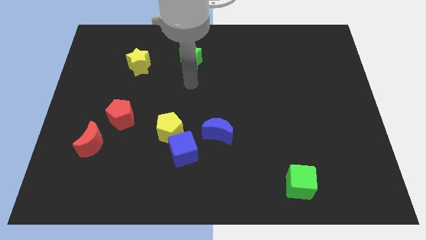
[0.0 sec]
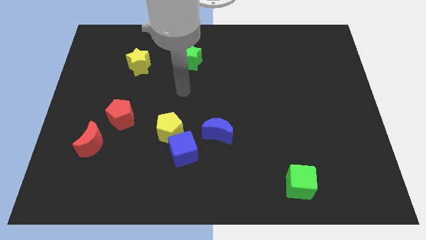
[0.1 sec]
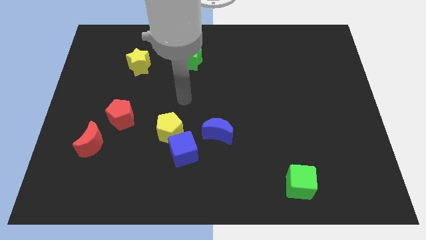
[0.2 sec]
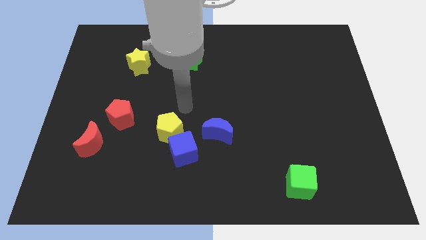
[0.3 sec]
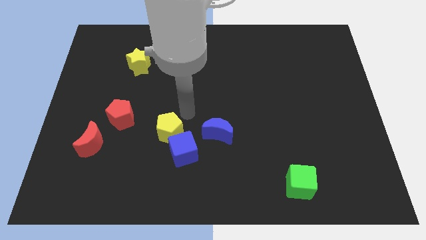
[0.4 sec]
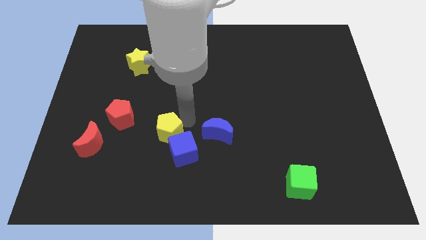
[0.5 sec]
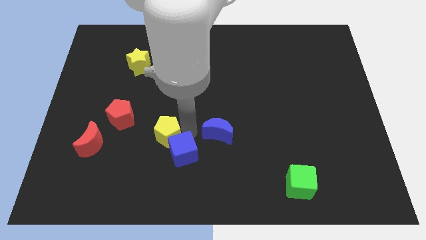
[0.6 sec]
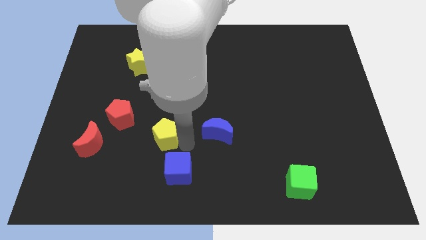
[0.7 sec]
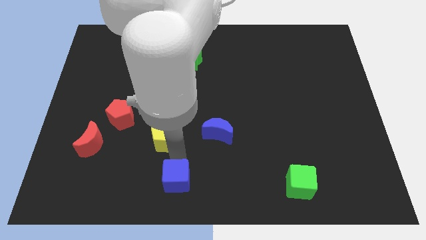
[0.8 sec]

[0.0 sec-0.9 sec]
pull the yellow pentagon apart from the blue cube

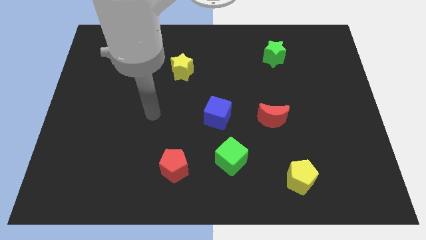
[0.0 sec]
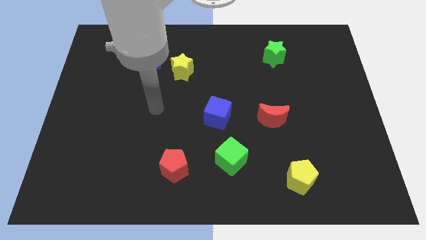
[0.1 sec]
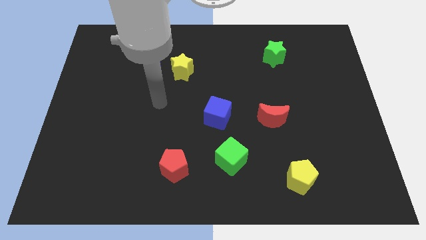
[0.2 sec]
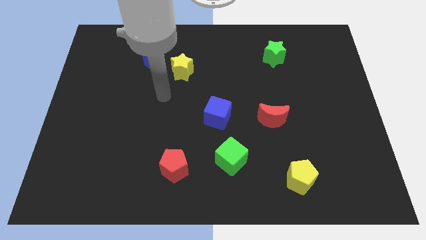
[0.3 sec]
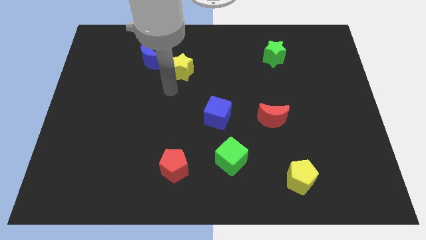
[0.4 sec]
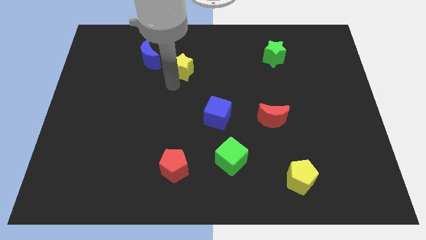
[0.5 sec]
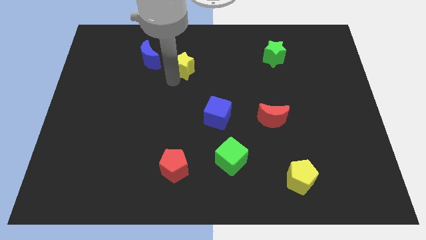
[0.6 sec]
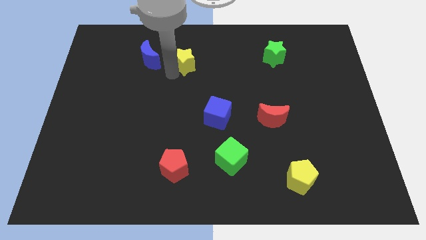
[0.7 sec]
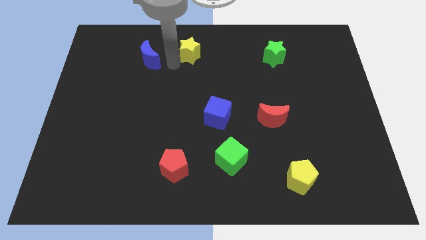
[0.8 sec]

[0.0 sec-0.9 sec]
pull the blue moon apart from the yellow star

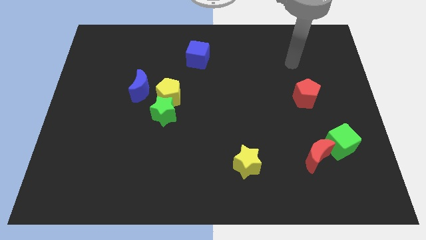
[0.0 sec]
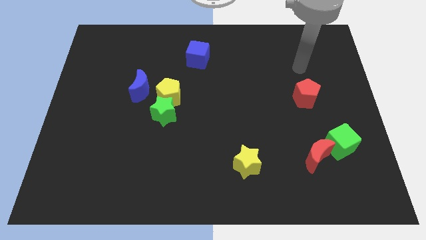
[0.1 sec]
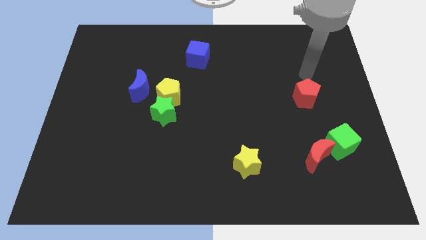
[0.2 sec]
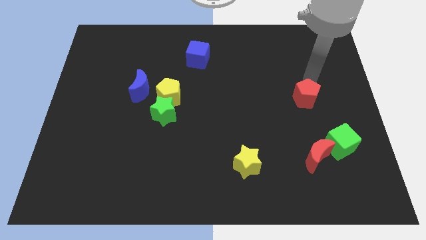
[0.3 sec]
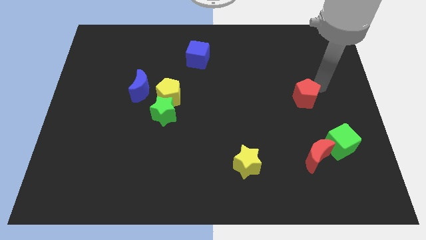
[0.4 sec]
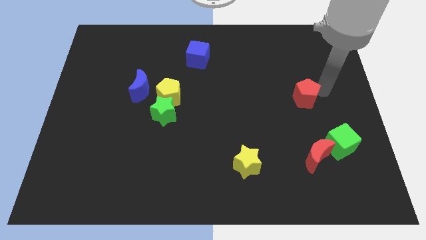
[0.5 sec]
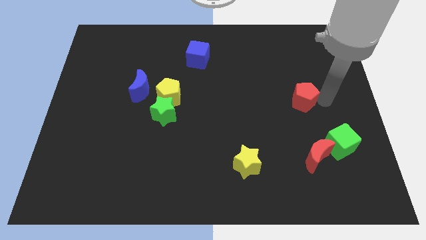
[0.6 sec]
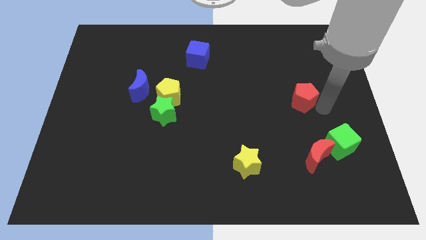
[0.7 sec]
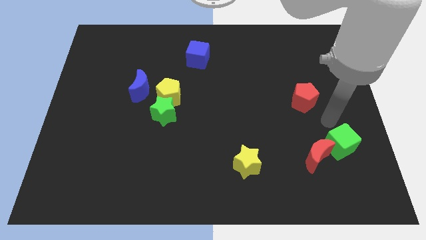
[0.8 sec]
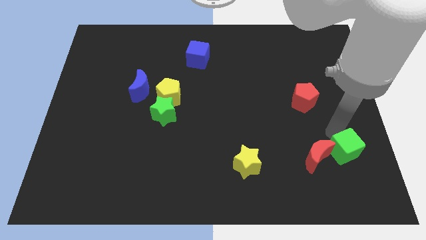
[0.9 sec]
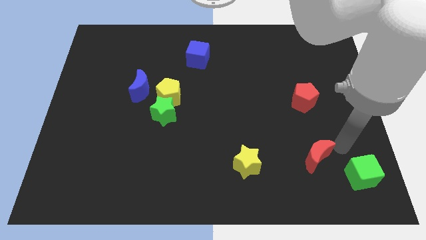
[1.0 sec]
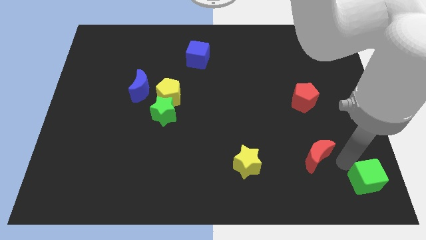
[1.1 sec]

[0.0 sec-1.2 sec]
separate the red moon from the green cube

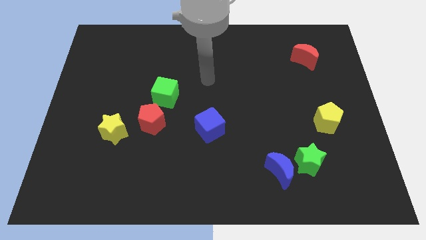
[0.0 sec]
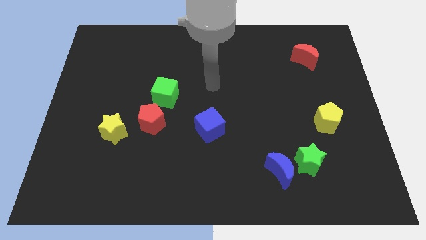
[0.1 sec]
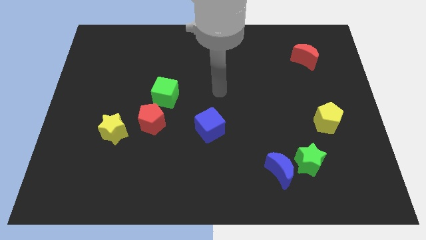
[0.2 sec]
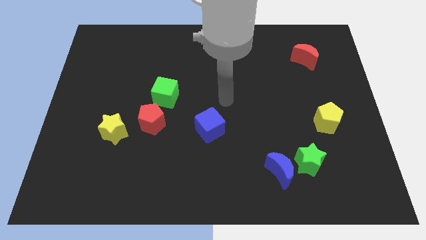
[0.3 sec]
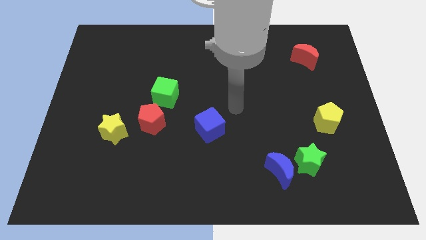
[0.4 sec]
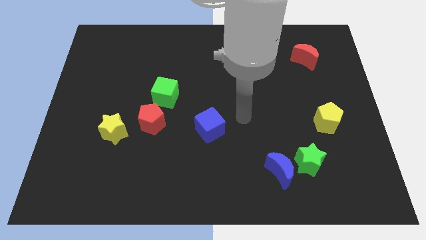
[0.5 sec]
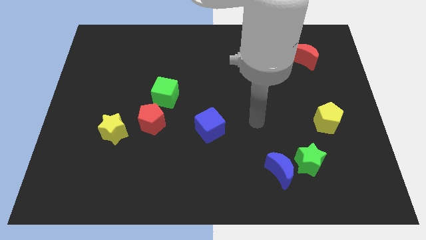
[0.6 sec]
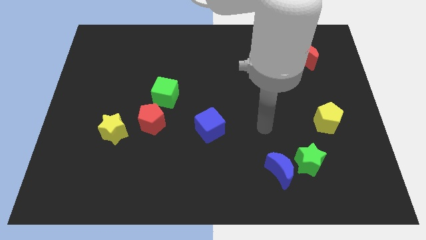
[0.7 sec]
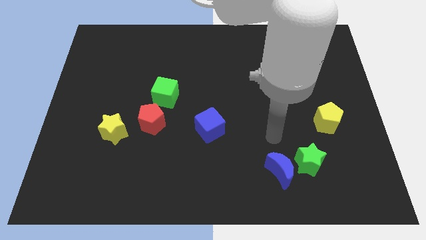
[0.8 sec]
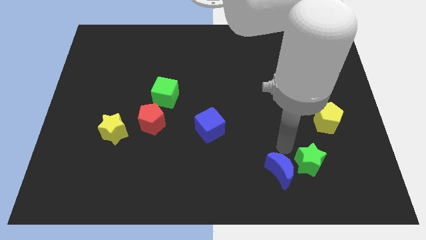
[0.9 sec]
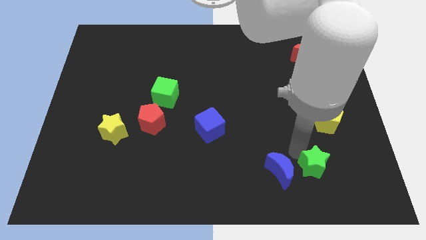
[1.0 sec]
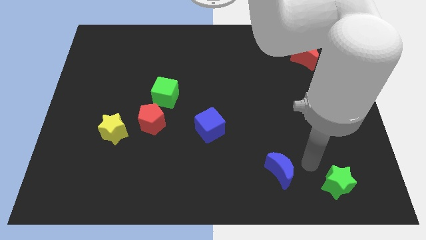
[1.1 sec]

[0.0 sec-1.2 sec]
pull the blue moon apart from the green star

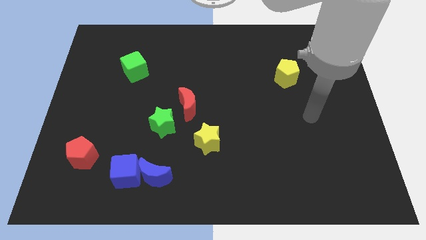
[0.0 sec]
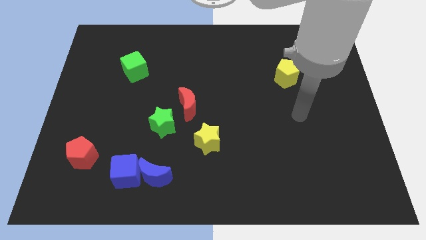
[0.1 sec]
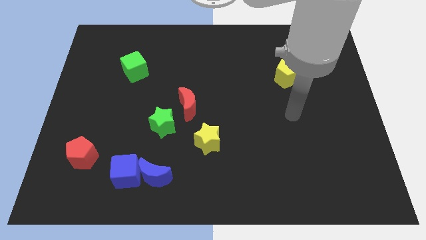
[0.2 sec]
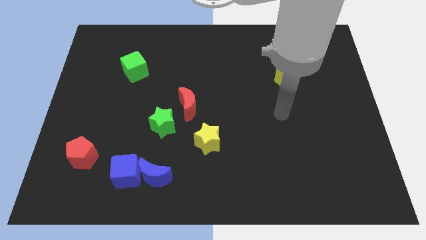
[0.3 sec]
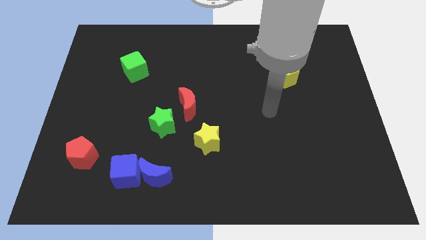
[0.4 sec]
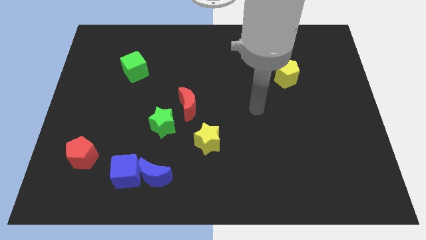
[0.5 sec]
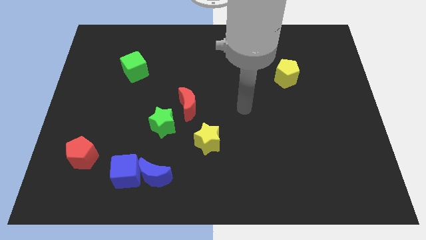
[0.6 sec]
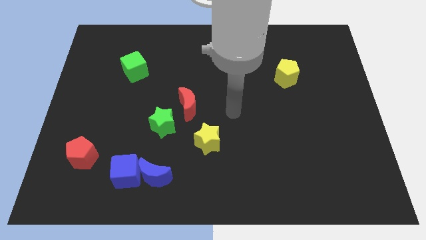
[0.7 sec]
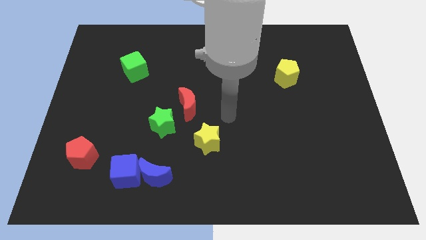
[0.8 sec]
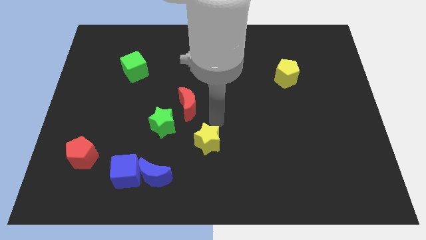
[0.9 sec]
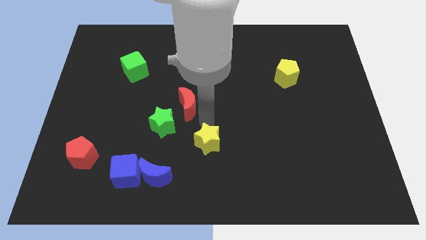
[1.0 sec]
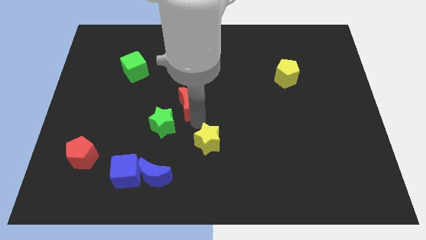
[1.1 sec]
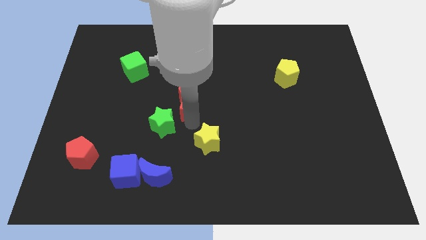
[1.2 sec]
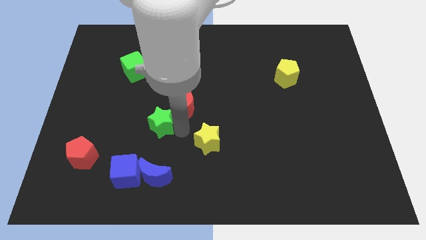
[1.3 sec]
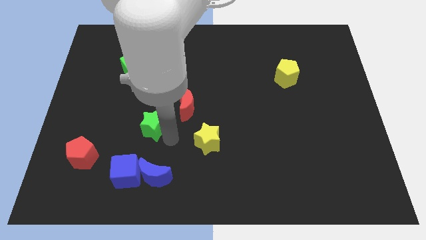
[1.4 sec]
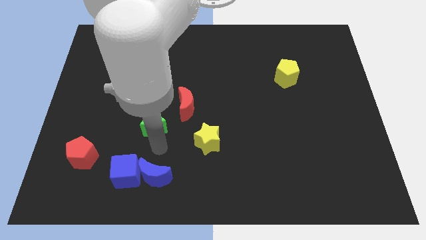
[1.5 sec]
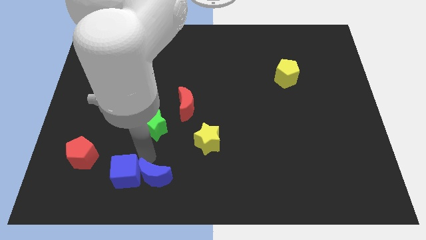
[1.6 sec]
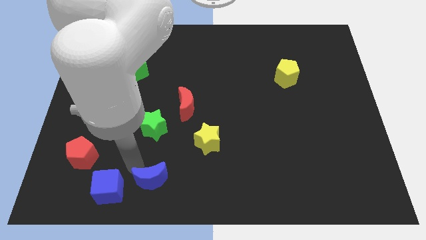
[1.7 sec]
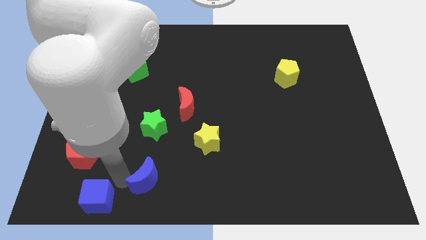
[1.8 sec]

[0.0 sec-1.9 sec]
pull the blue moon apart from the blue cube

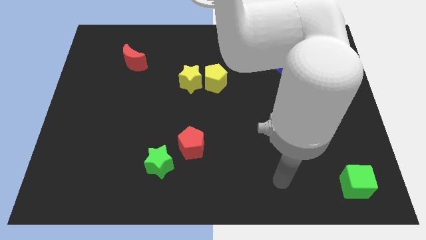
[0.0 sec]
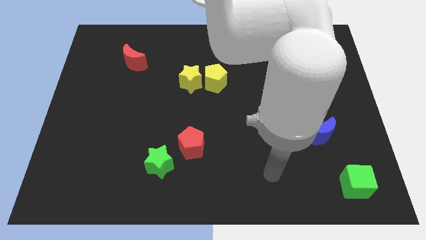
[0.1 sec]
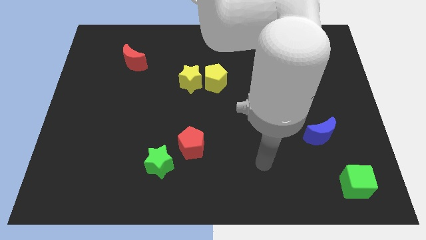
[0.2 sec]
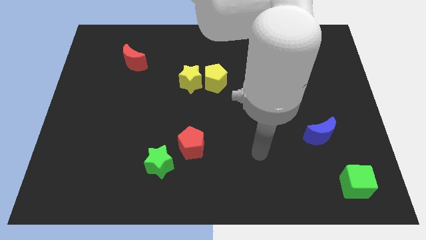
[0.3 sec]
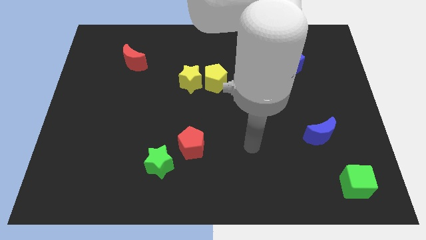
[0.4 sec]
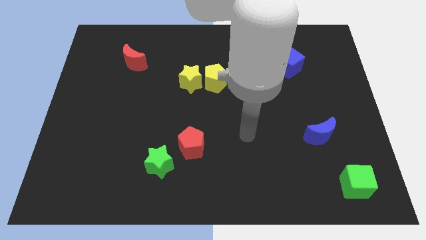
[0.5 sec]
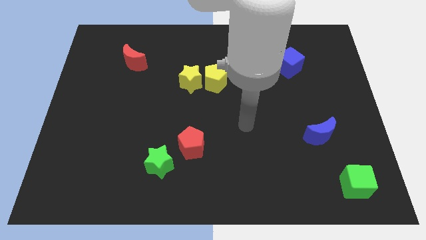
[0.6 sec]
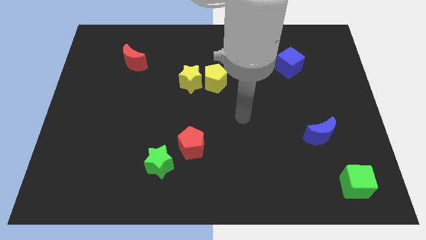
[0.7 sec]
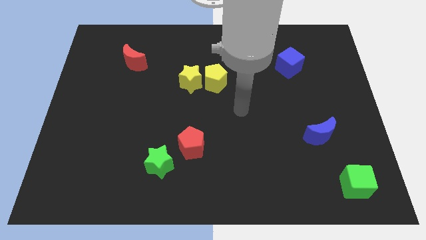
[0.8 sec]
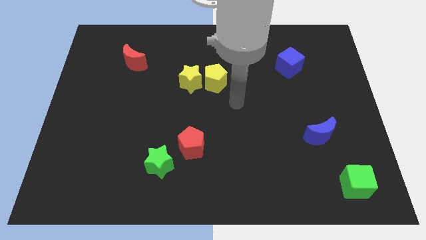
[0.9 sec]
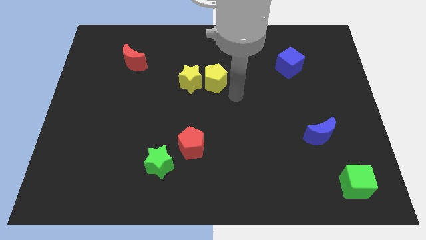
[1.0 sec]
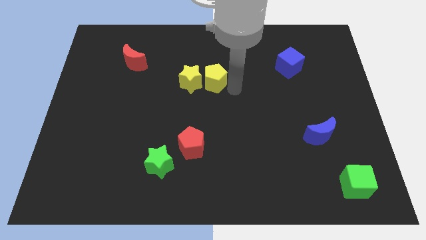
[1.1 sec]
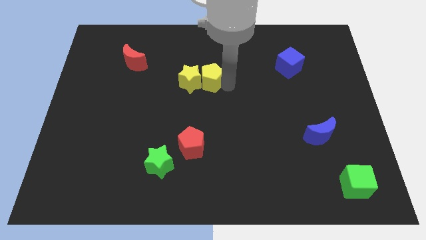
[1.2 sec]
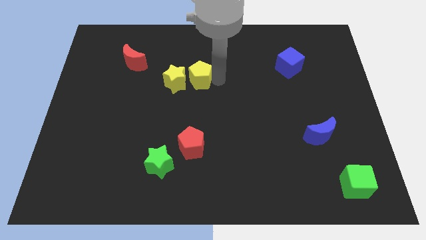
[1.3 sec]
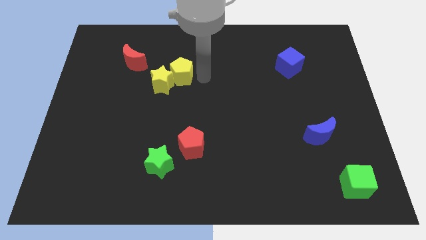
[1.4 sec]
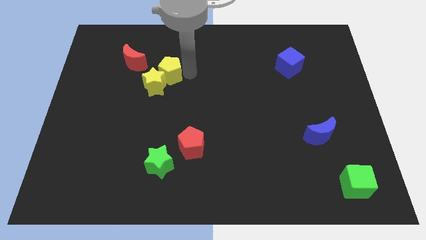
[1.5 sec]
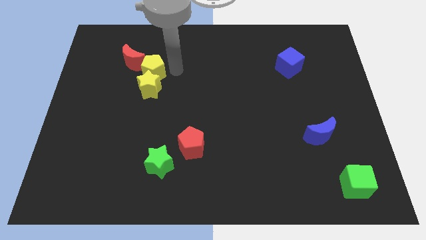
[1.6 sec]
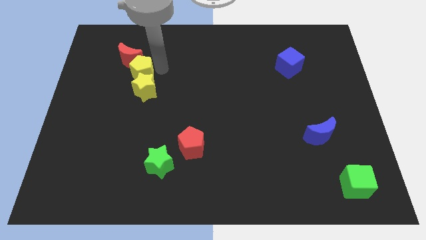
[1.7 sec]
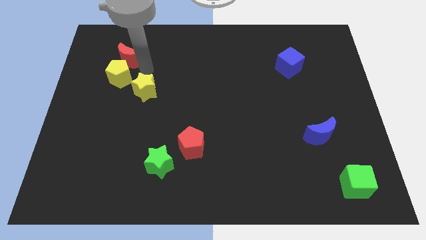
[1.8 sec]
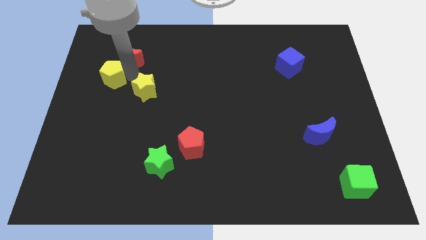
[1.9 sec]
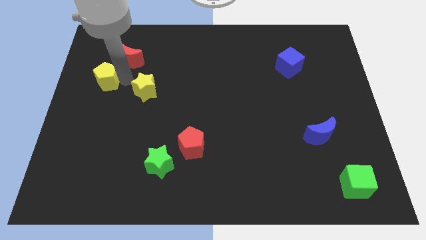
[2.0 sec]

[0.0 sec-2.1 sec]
move the yellow star away from the yellow pentagon

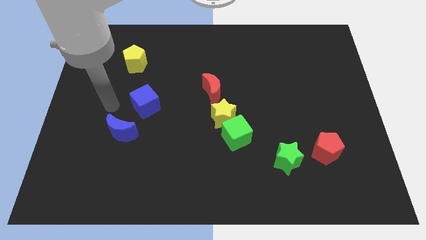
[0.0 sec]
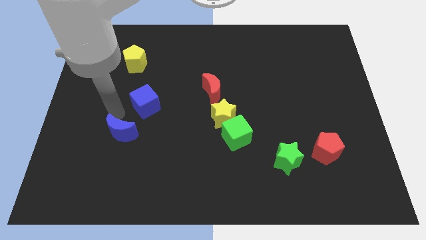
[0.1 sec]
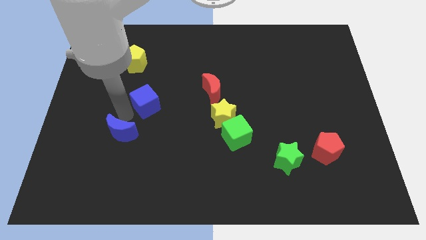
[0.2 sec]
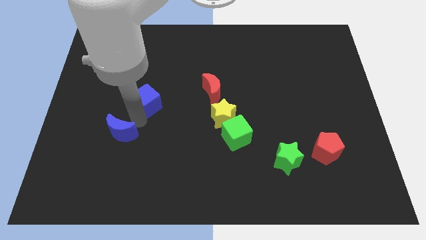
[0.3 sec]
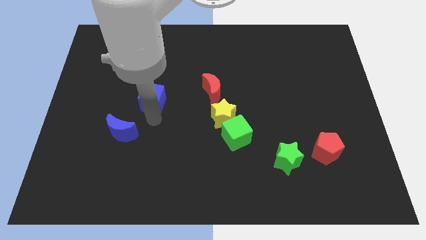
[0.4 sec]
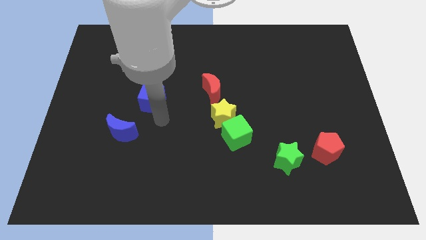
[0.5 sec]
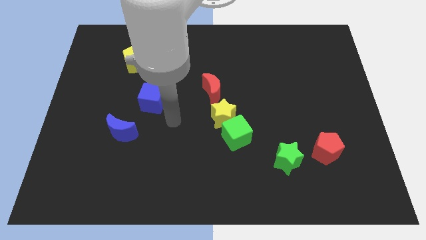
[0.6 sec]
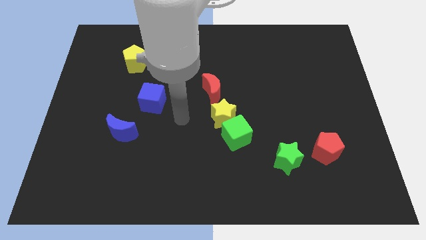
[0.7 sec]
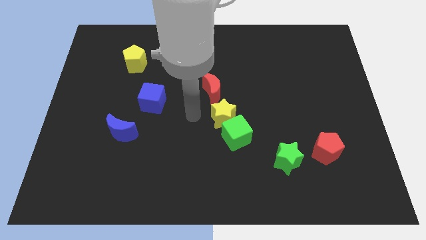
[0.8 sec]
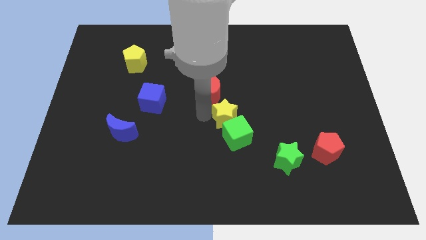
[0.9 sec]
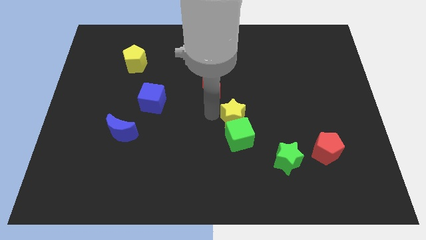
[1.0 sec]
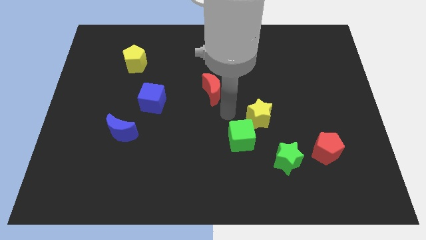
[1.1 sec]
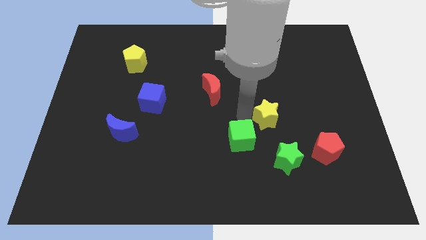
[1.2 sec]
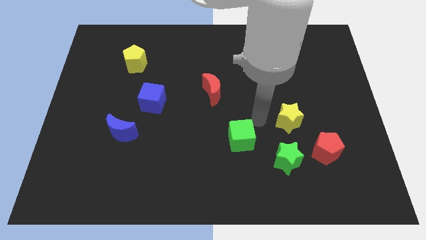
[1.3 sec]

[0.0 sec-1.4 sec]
pull the green cube apart from the yellow star
